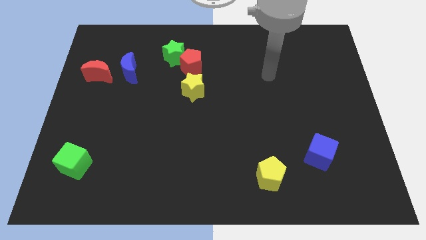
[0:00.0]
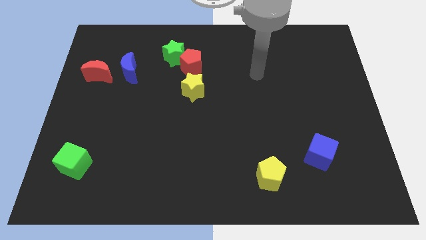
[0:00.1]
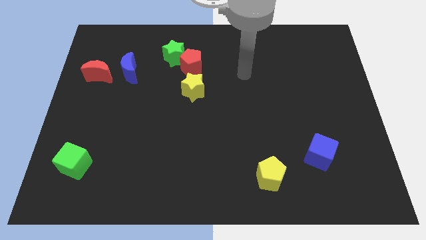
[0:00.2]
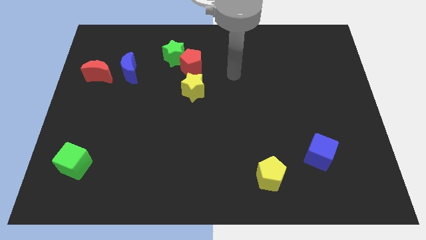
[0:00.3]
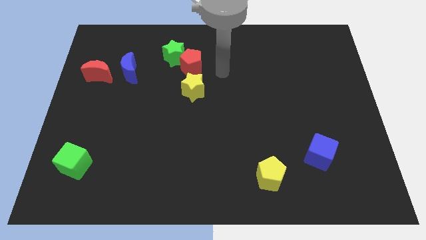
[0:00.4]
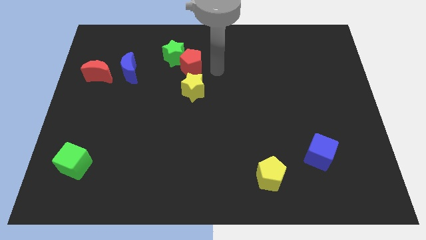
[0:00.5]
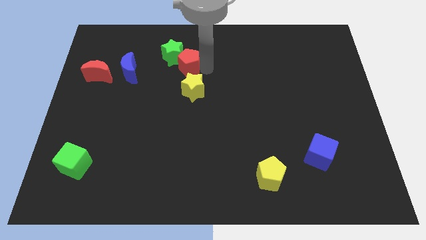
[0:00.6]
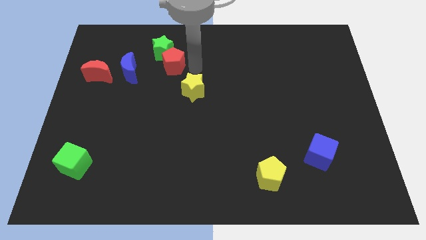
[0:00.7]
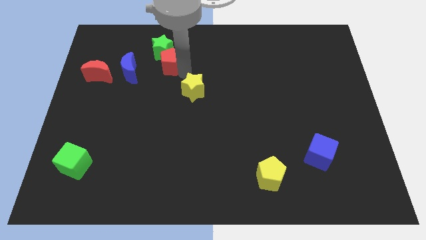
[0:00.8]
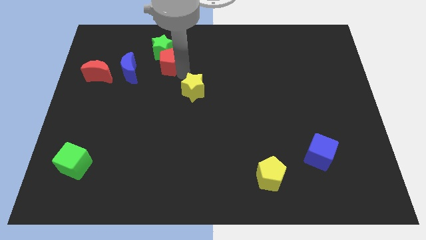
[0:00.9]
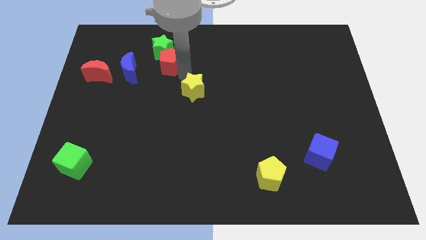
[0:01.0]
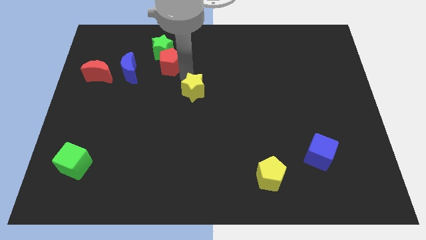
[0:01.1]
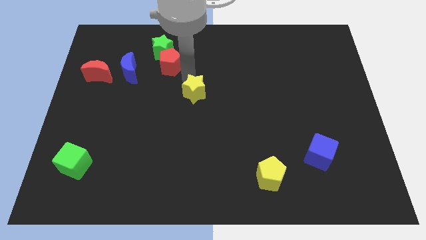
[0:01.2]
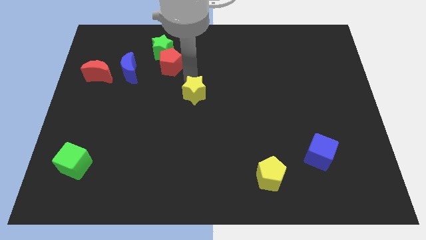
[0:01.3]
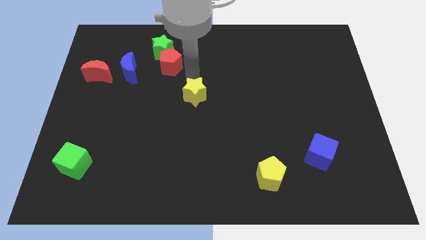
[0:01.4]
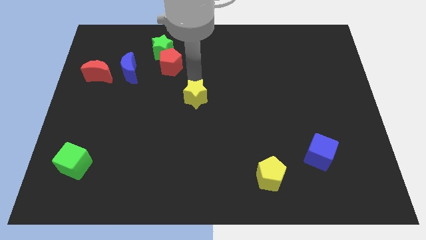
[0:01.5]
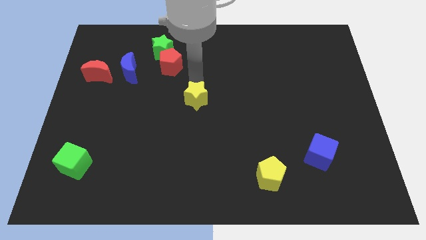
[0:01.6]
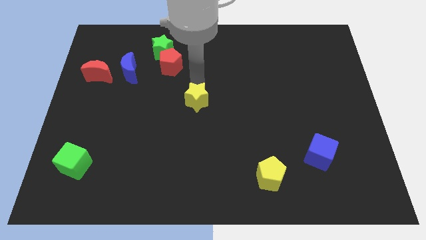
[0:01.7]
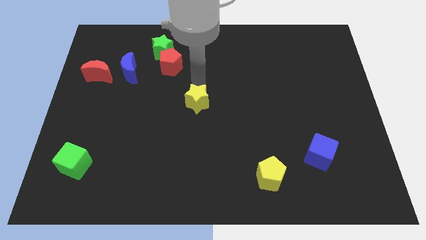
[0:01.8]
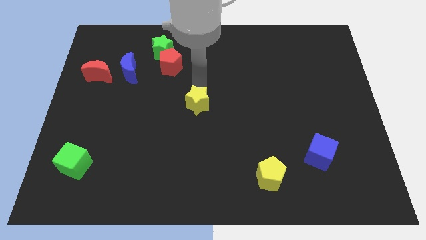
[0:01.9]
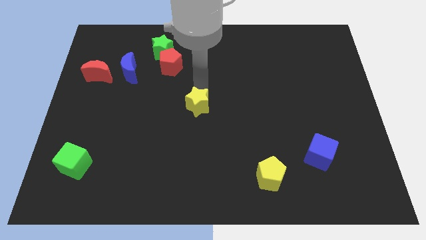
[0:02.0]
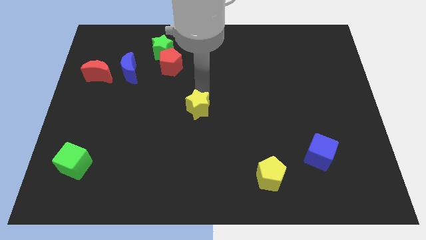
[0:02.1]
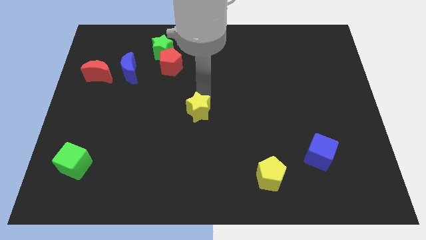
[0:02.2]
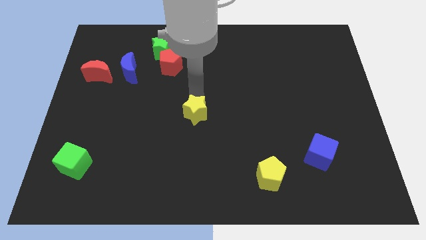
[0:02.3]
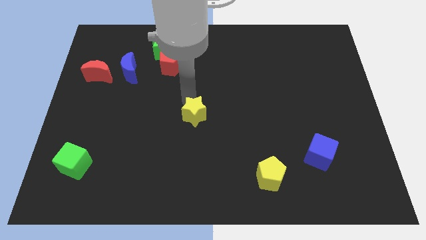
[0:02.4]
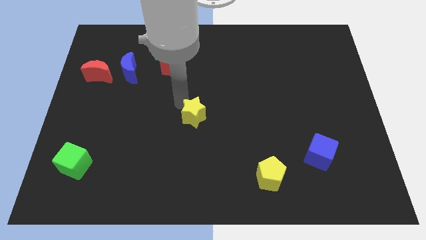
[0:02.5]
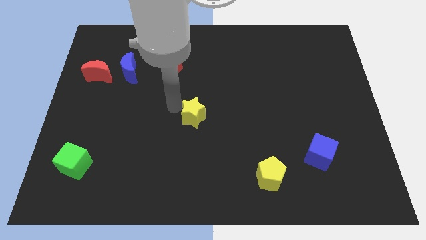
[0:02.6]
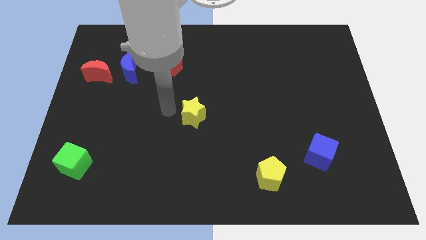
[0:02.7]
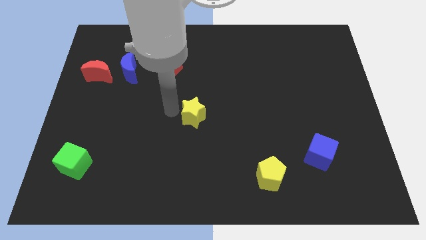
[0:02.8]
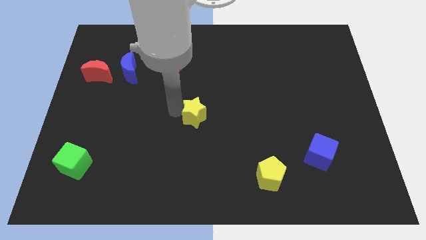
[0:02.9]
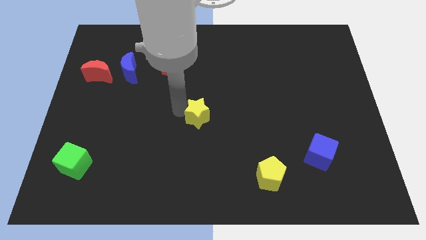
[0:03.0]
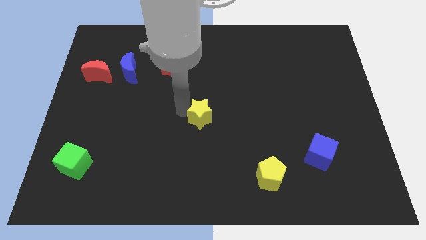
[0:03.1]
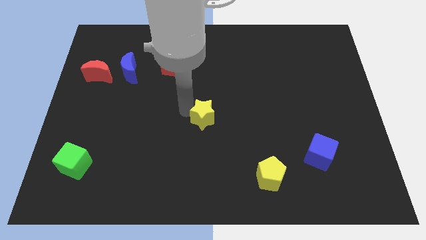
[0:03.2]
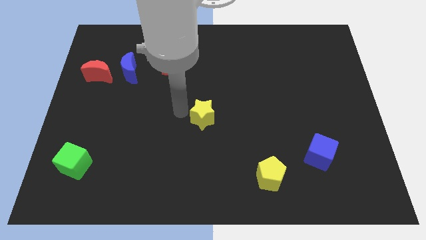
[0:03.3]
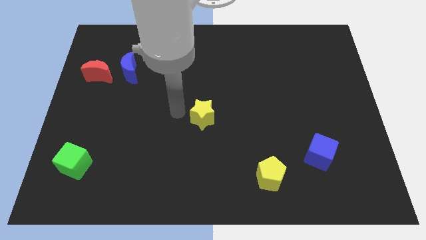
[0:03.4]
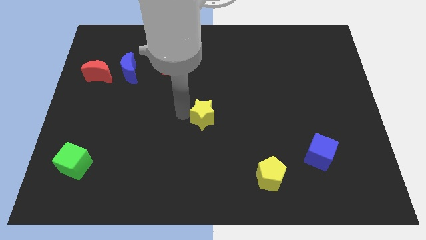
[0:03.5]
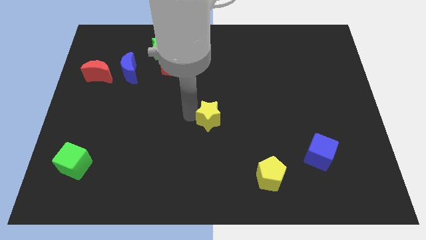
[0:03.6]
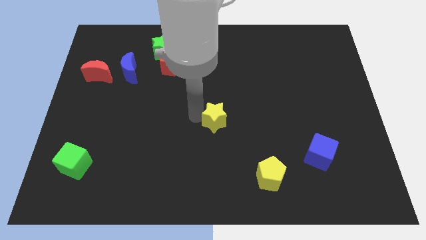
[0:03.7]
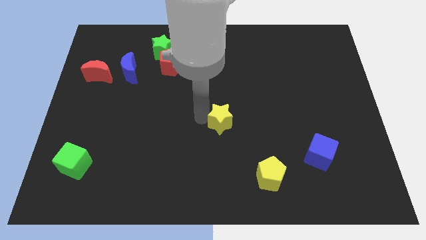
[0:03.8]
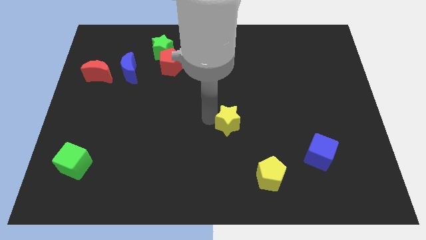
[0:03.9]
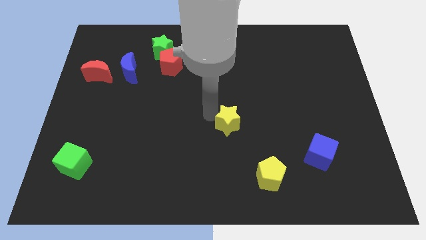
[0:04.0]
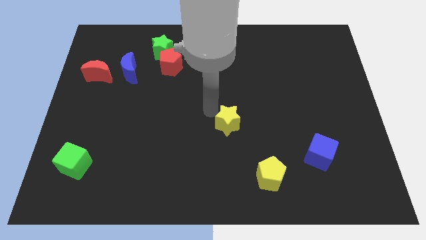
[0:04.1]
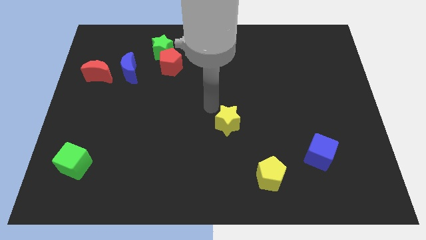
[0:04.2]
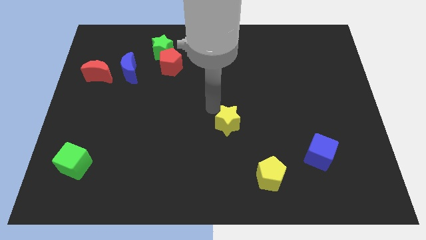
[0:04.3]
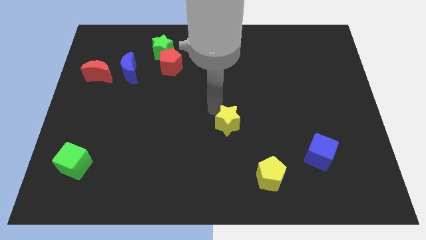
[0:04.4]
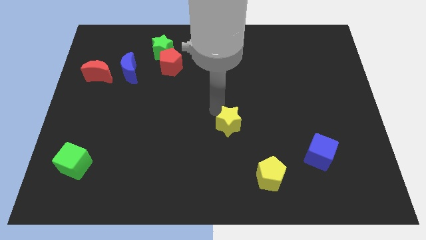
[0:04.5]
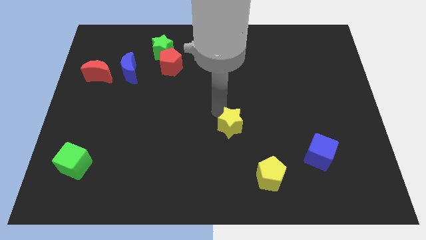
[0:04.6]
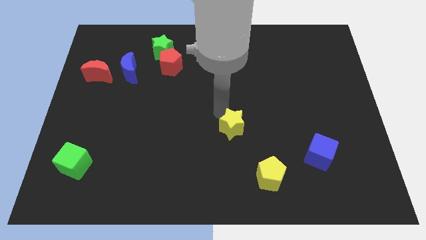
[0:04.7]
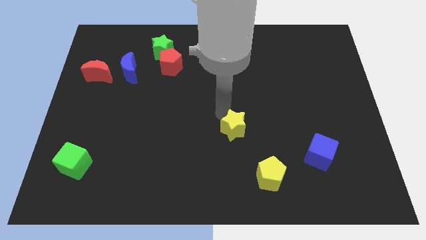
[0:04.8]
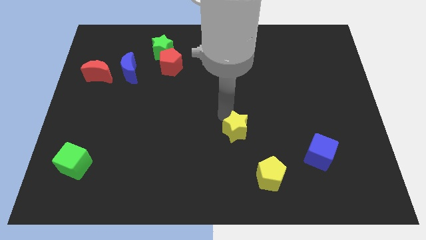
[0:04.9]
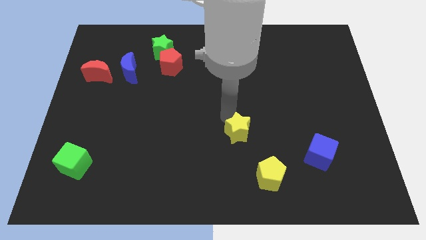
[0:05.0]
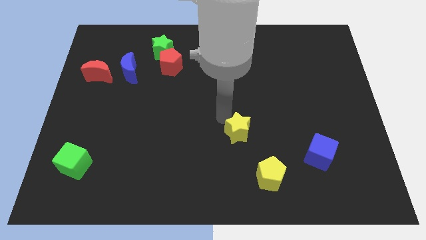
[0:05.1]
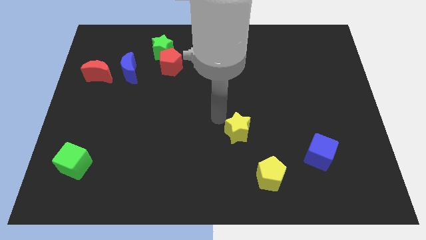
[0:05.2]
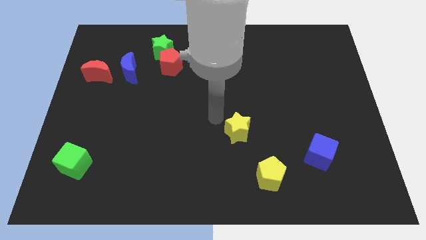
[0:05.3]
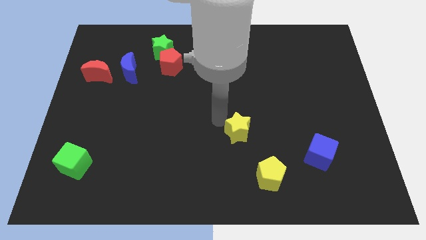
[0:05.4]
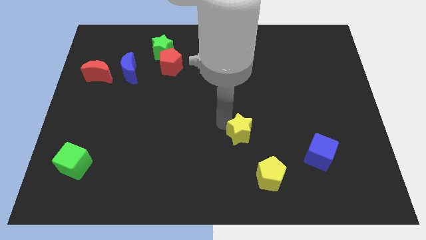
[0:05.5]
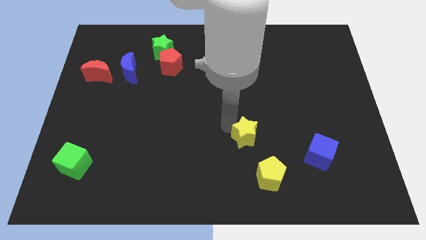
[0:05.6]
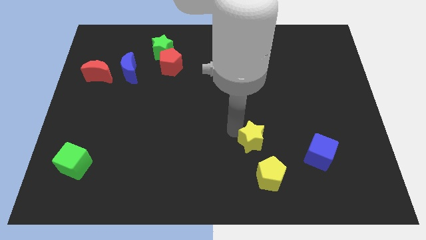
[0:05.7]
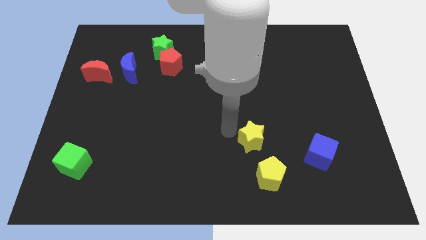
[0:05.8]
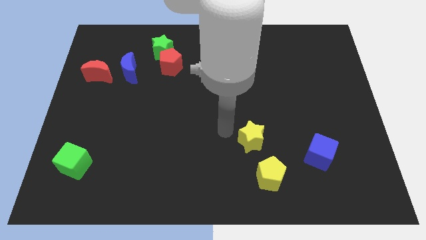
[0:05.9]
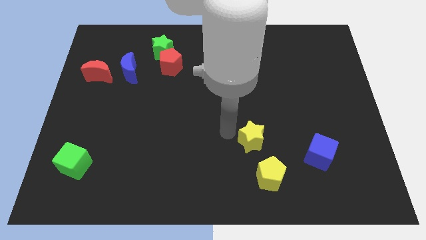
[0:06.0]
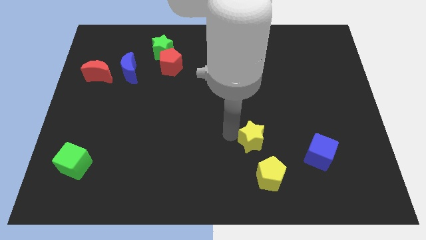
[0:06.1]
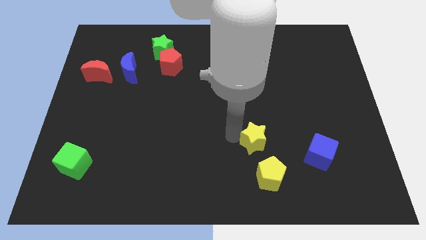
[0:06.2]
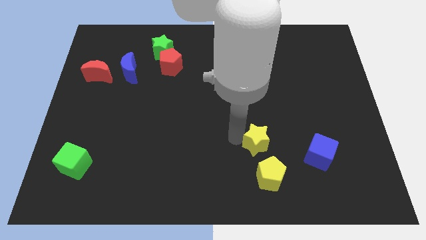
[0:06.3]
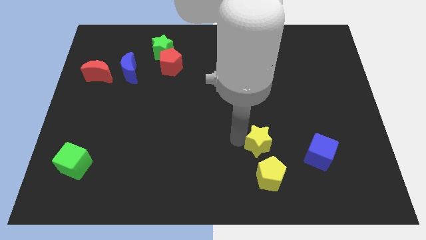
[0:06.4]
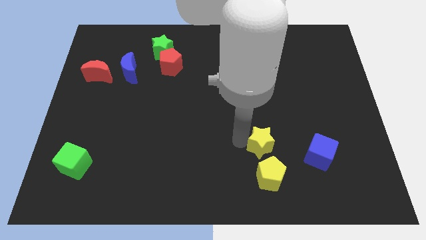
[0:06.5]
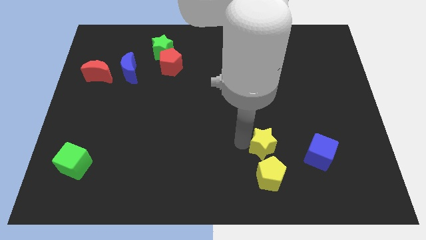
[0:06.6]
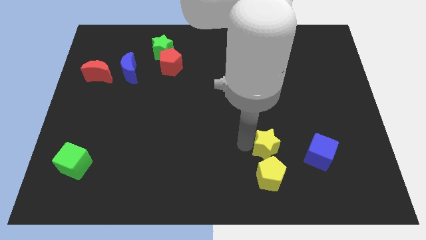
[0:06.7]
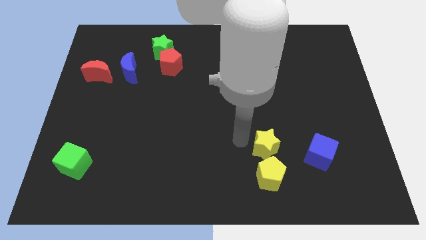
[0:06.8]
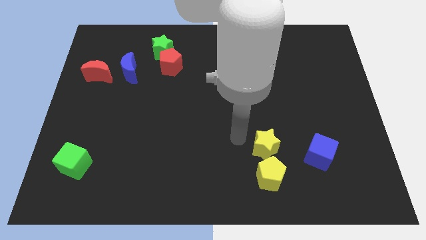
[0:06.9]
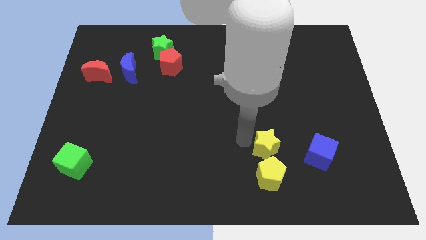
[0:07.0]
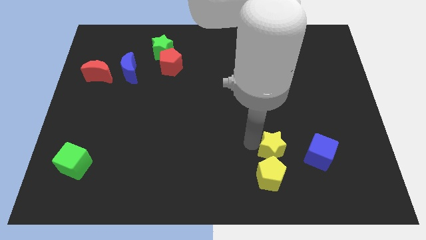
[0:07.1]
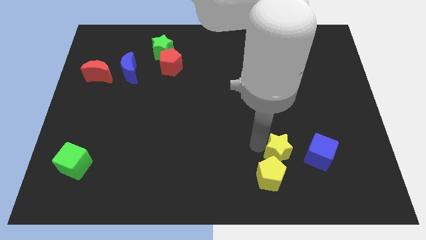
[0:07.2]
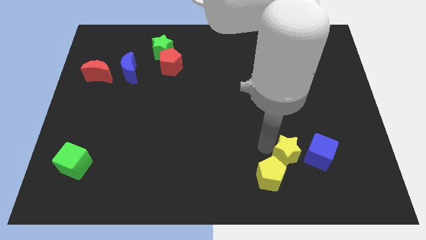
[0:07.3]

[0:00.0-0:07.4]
move the yellow star diagonally down and to the left of the blue cube

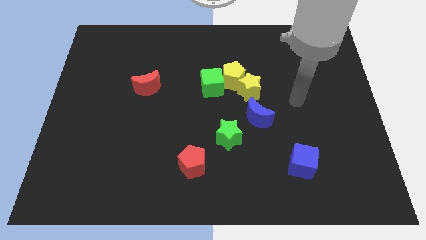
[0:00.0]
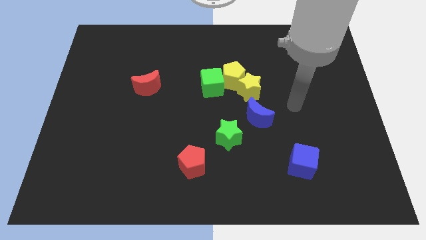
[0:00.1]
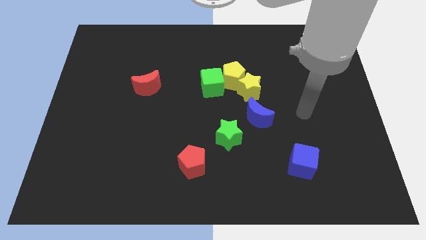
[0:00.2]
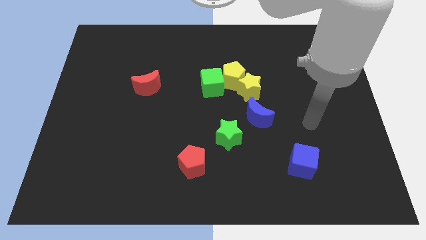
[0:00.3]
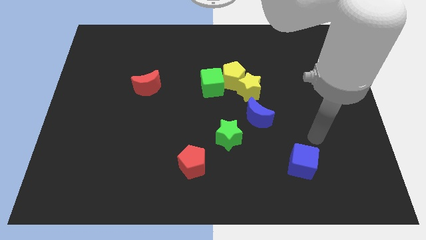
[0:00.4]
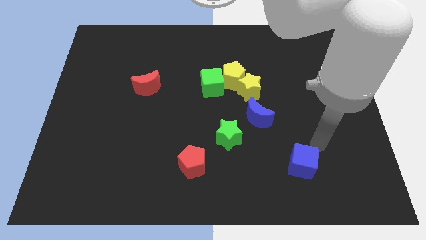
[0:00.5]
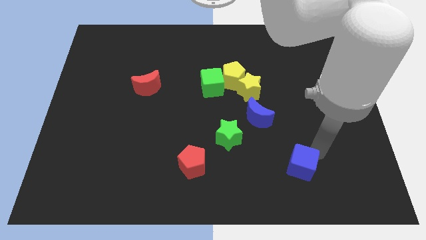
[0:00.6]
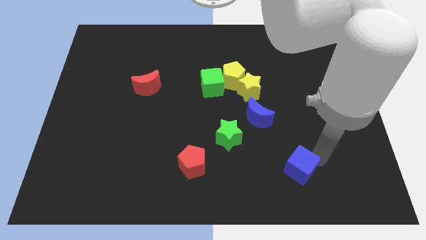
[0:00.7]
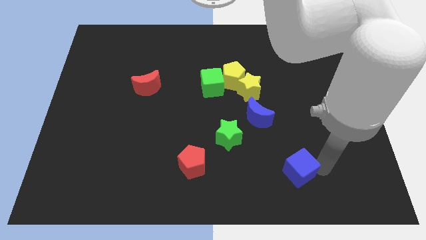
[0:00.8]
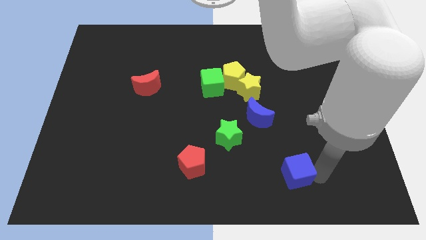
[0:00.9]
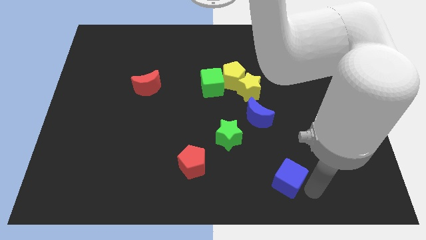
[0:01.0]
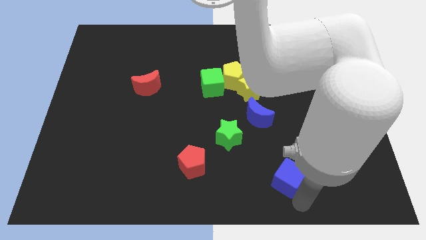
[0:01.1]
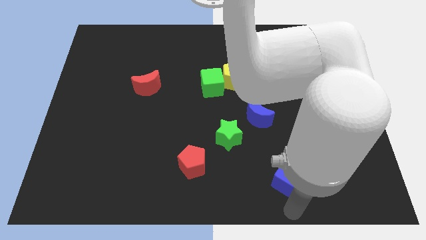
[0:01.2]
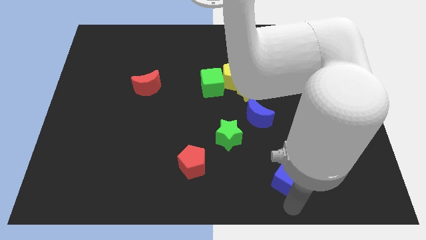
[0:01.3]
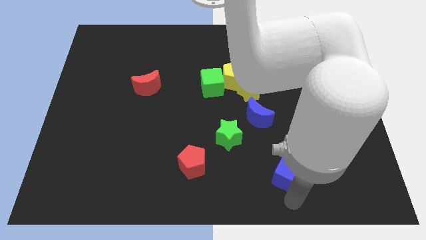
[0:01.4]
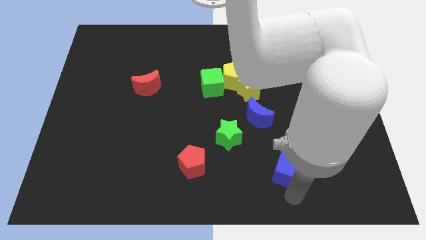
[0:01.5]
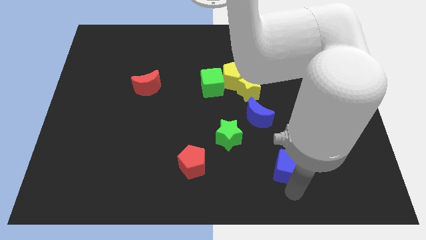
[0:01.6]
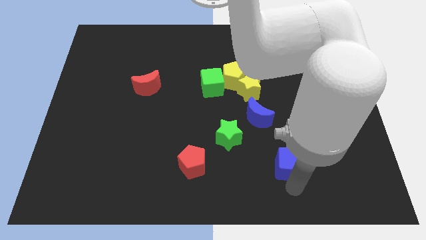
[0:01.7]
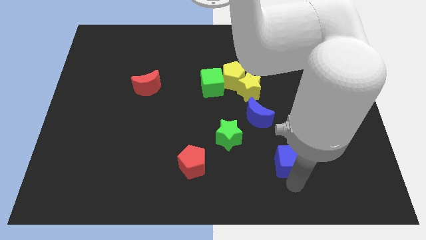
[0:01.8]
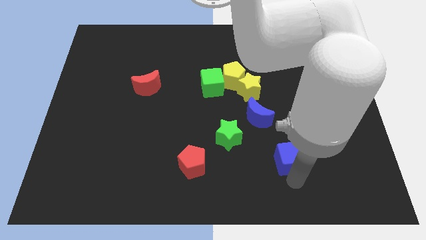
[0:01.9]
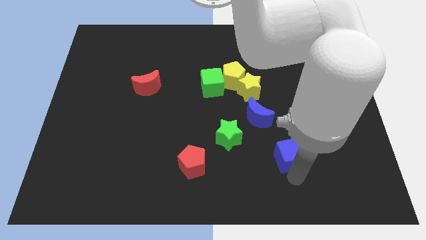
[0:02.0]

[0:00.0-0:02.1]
put the blue cube to the bottom right side of the blue moon
